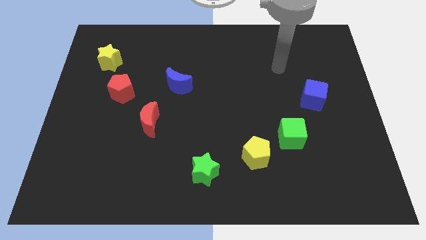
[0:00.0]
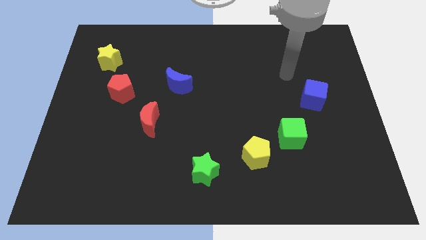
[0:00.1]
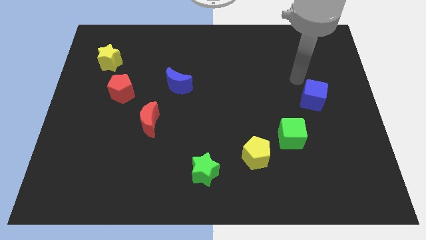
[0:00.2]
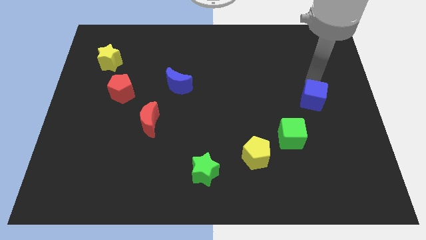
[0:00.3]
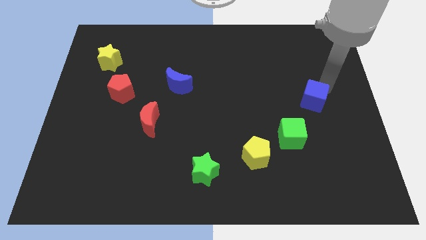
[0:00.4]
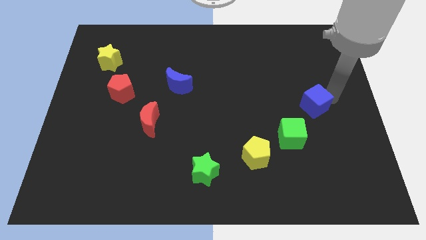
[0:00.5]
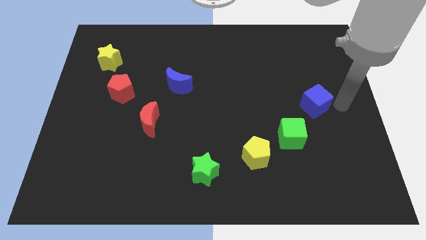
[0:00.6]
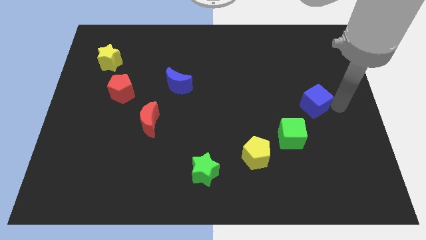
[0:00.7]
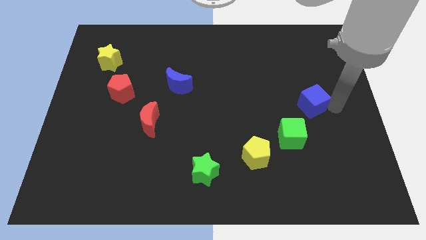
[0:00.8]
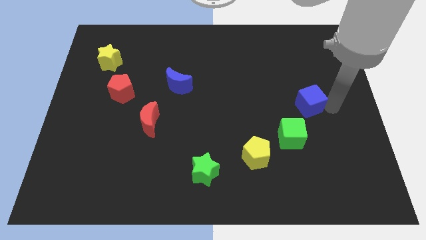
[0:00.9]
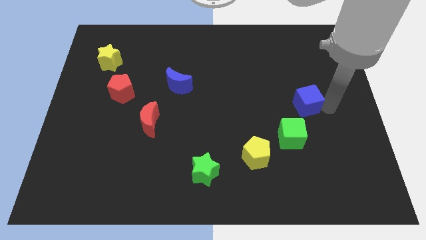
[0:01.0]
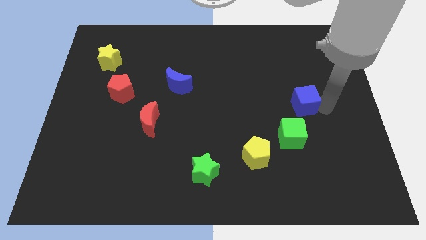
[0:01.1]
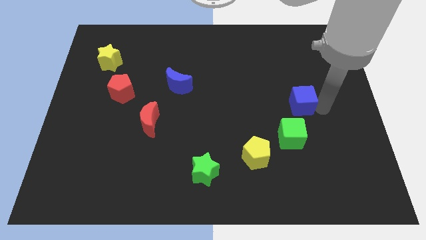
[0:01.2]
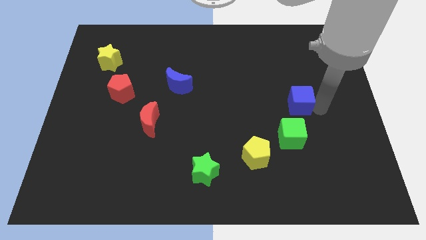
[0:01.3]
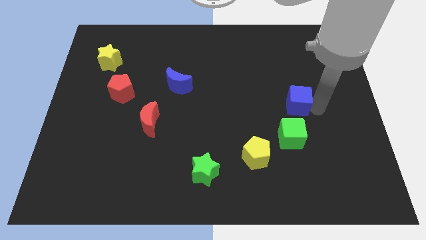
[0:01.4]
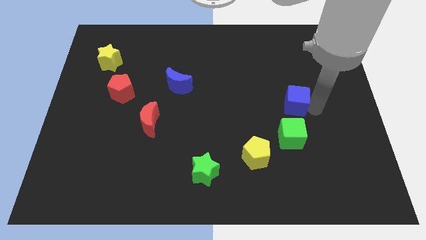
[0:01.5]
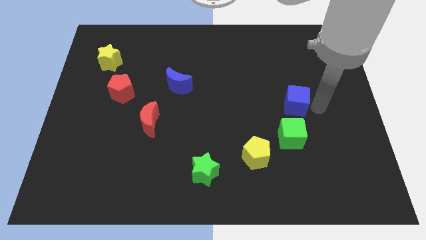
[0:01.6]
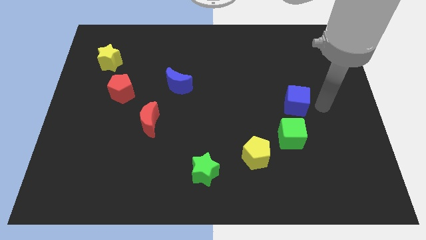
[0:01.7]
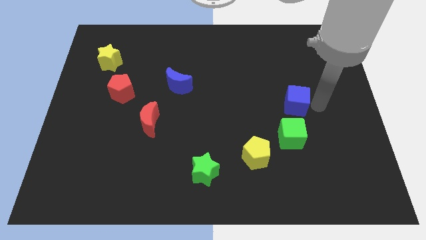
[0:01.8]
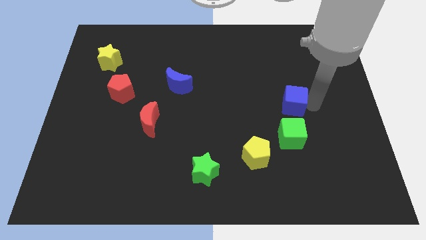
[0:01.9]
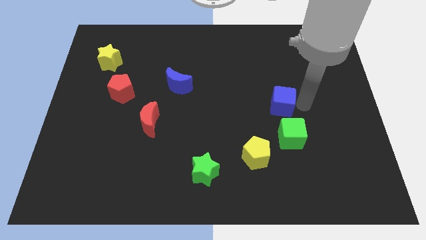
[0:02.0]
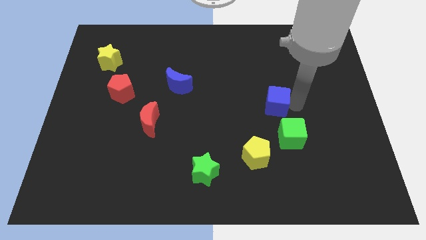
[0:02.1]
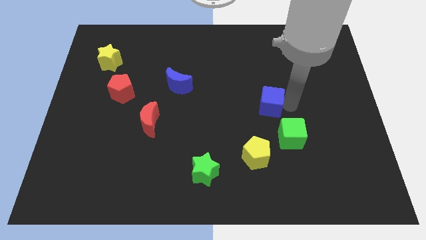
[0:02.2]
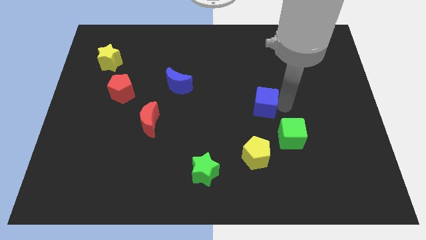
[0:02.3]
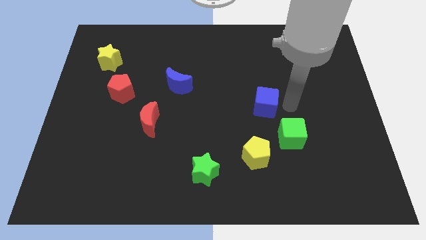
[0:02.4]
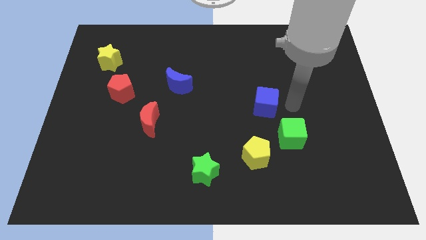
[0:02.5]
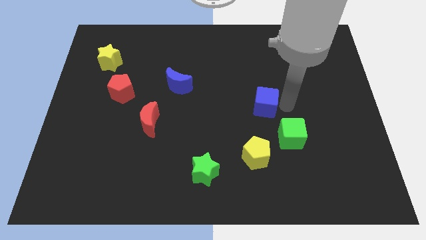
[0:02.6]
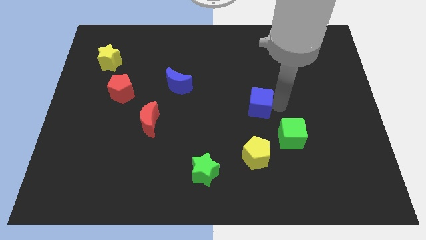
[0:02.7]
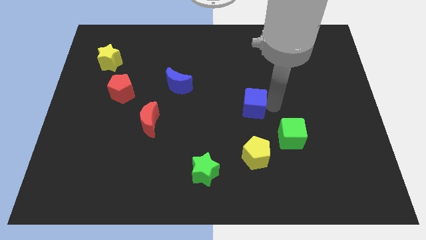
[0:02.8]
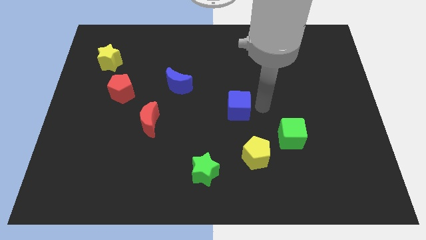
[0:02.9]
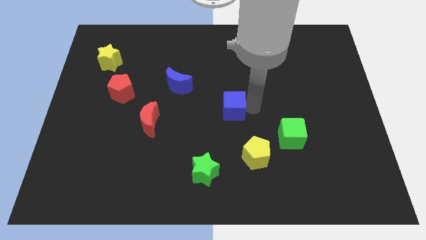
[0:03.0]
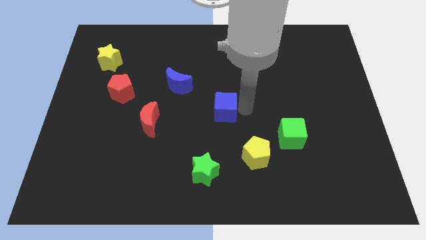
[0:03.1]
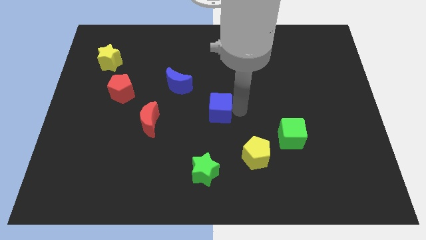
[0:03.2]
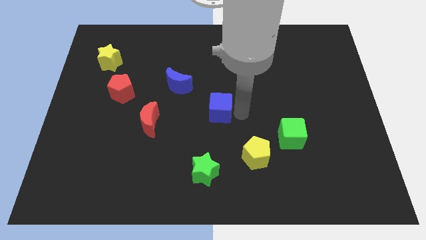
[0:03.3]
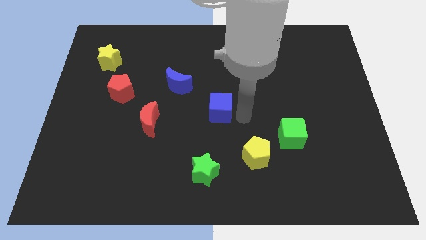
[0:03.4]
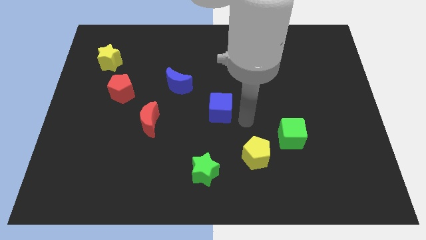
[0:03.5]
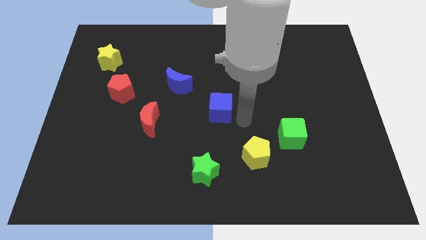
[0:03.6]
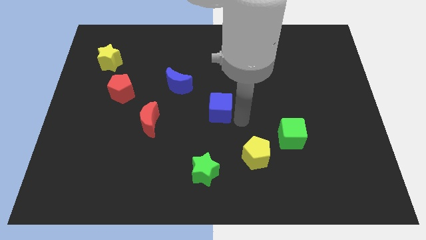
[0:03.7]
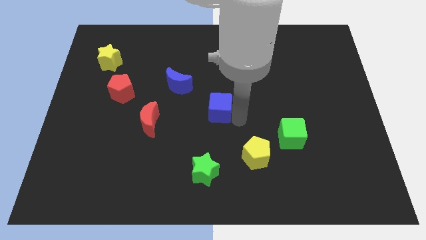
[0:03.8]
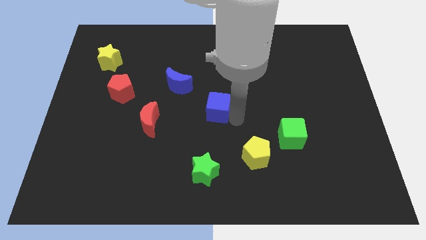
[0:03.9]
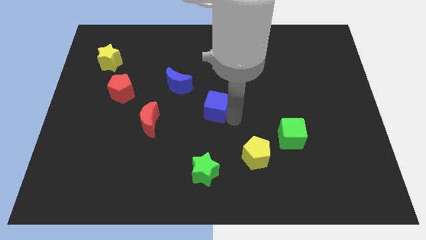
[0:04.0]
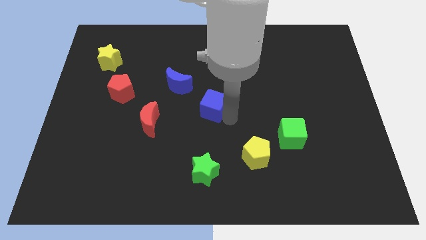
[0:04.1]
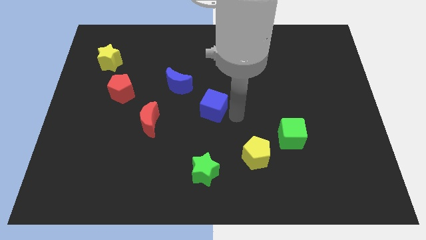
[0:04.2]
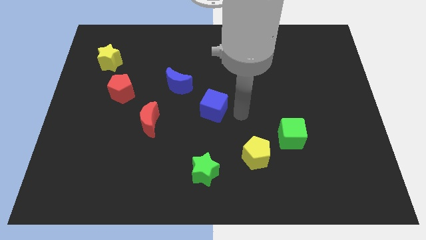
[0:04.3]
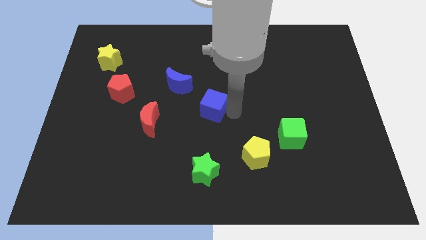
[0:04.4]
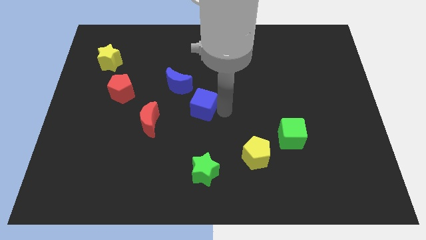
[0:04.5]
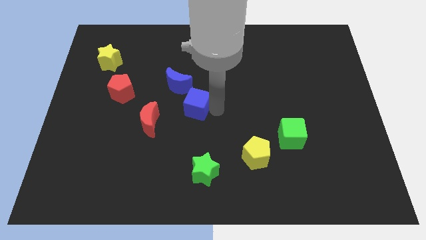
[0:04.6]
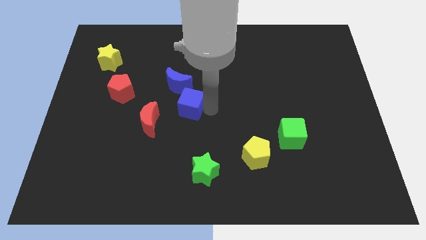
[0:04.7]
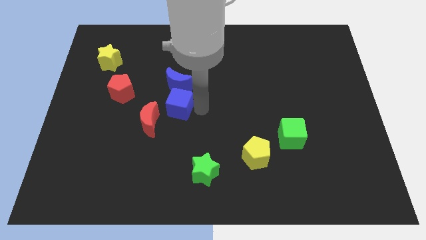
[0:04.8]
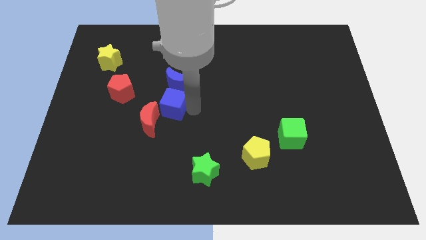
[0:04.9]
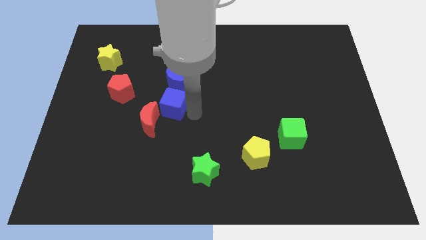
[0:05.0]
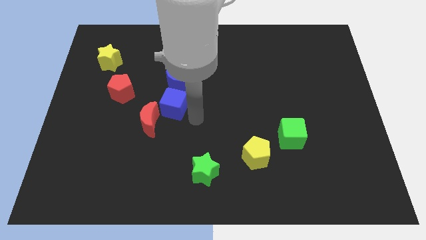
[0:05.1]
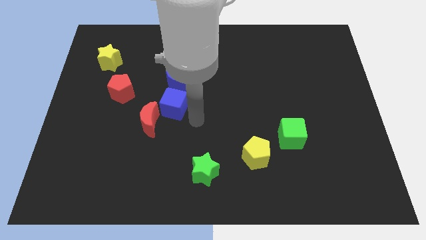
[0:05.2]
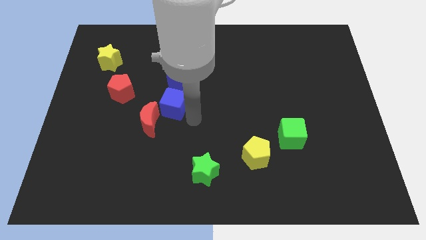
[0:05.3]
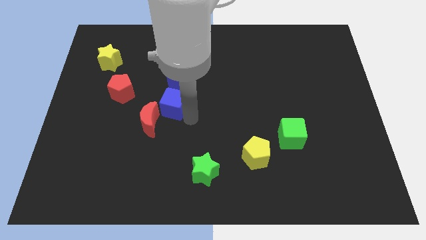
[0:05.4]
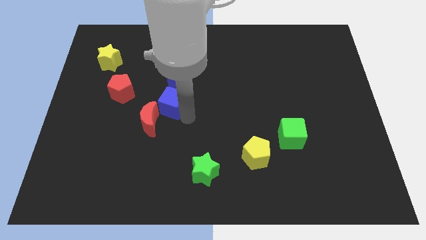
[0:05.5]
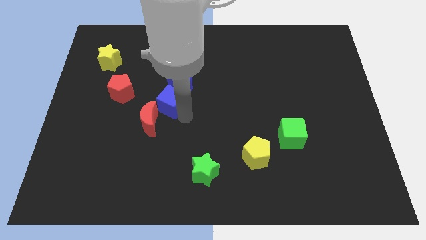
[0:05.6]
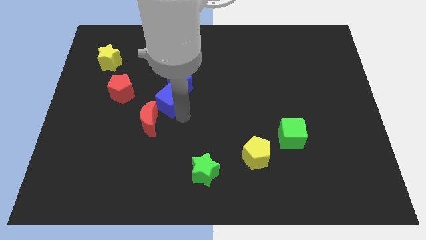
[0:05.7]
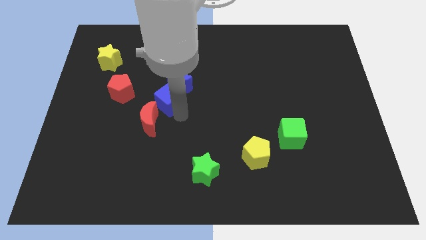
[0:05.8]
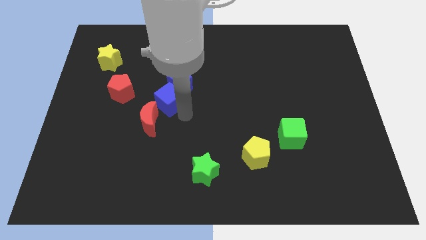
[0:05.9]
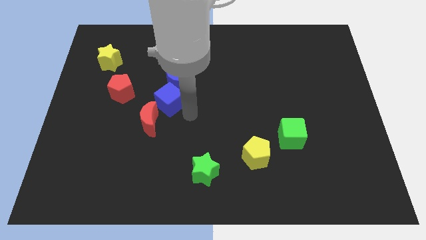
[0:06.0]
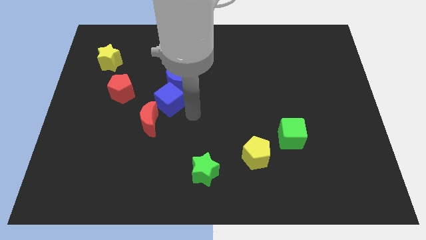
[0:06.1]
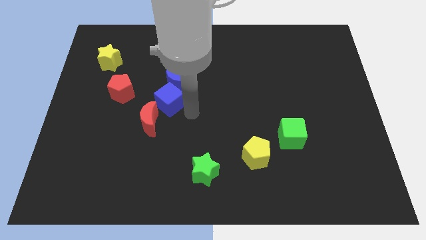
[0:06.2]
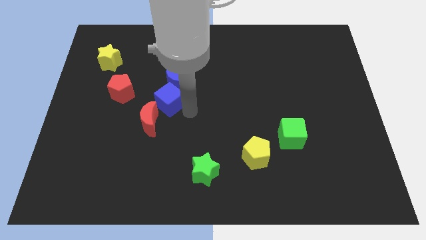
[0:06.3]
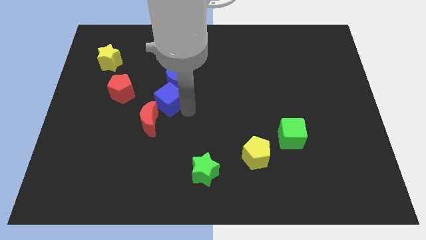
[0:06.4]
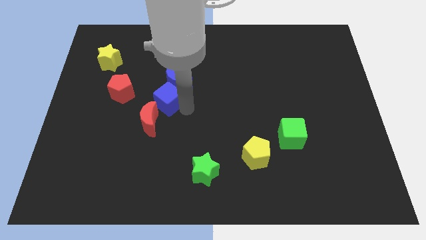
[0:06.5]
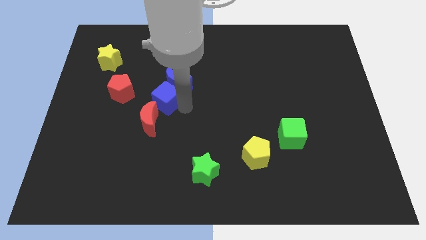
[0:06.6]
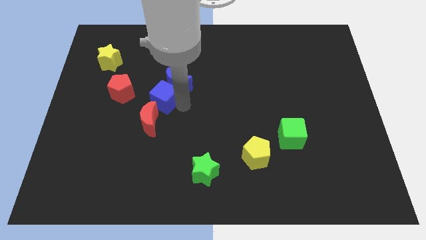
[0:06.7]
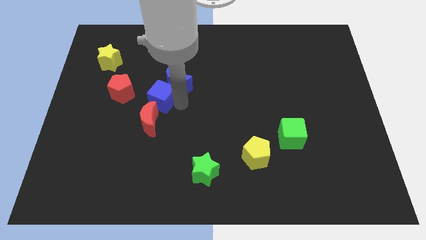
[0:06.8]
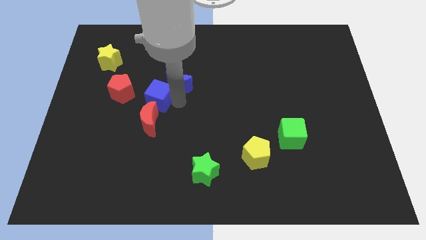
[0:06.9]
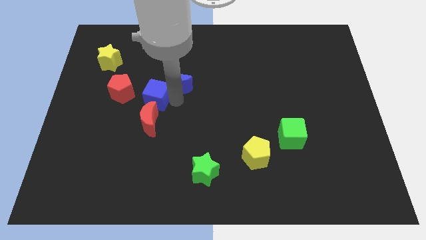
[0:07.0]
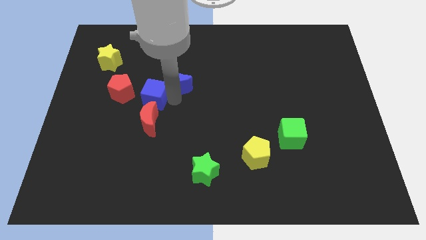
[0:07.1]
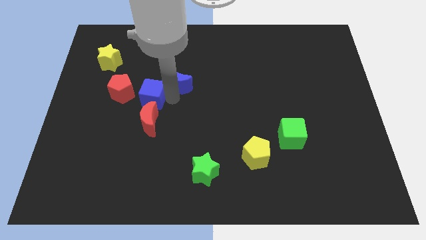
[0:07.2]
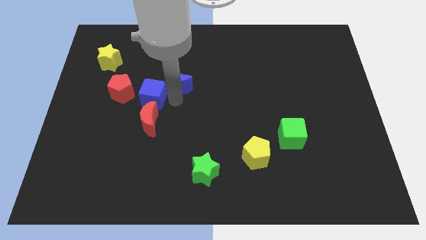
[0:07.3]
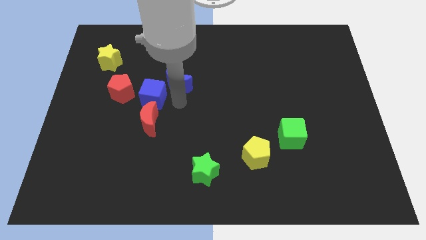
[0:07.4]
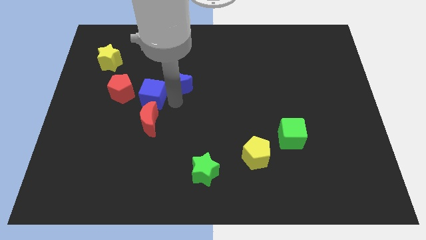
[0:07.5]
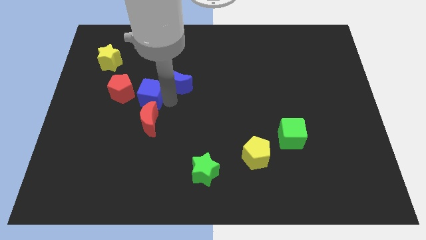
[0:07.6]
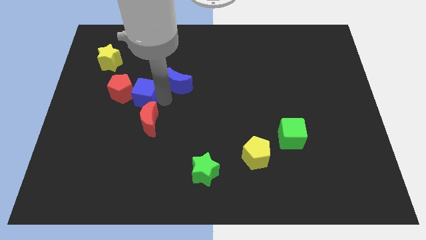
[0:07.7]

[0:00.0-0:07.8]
push the blue cube next to the red pentagon
